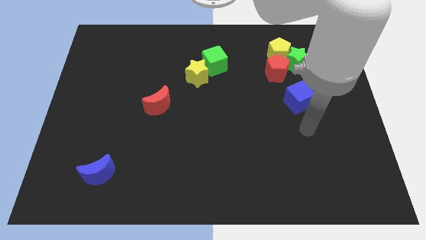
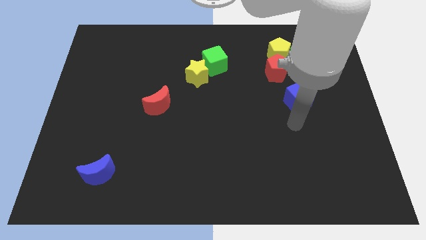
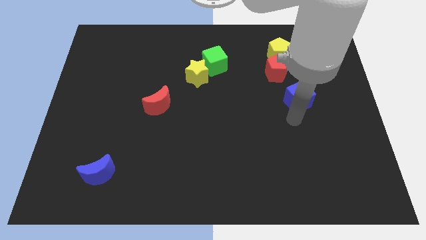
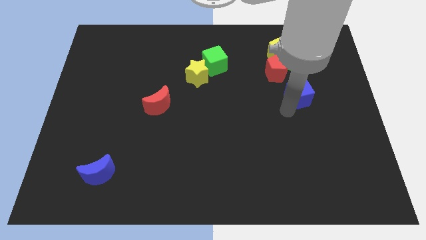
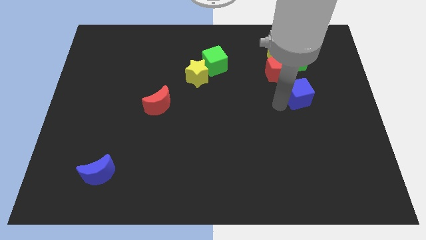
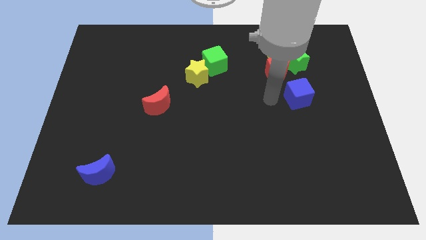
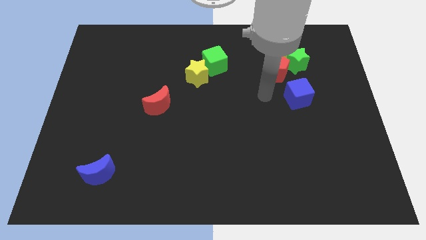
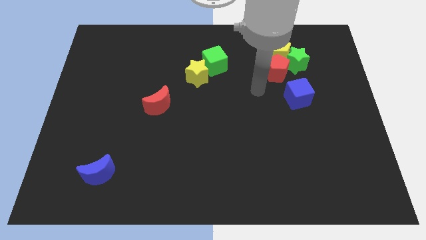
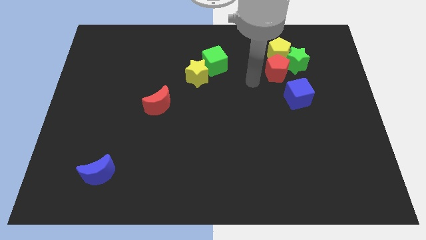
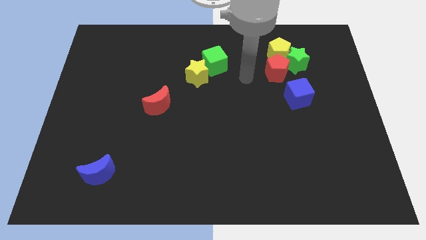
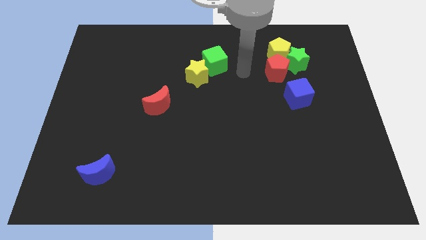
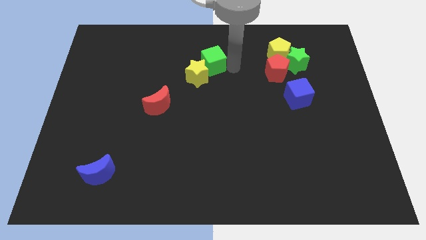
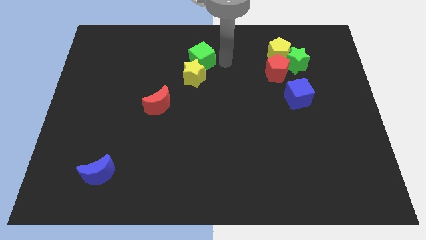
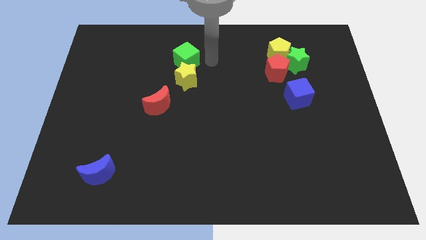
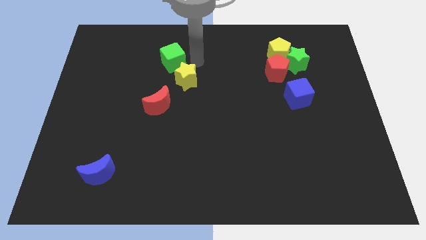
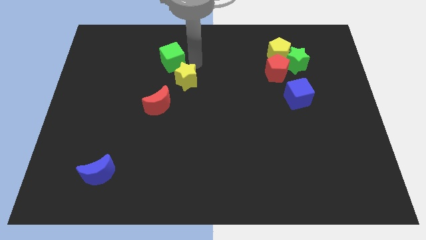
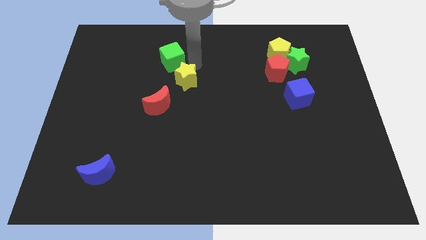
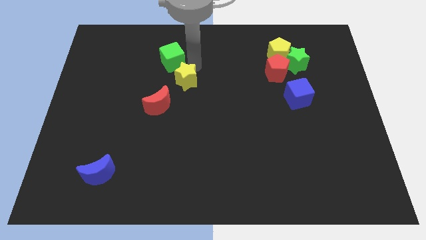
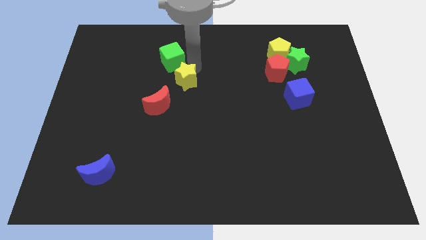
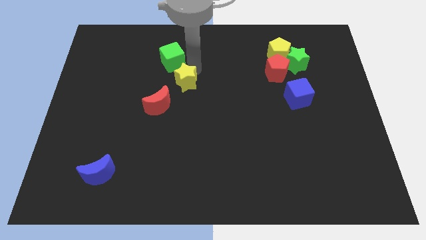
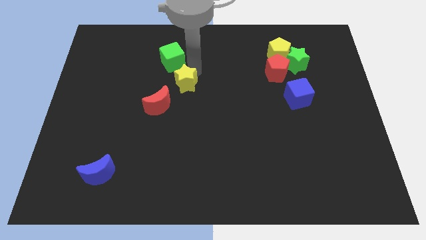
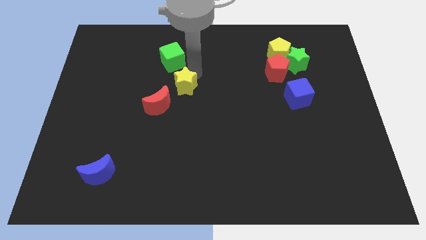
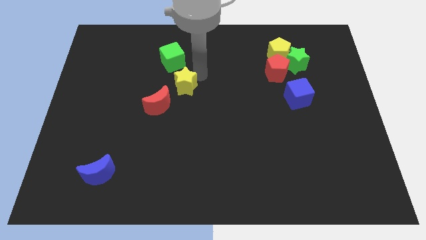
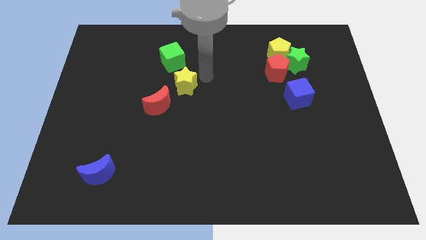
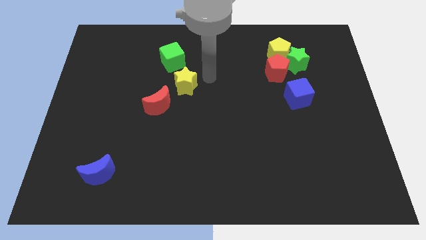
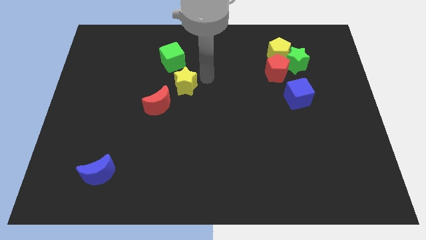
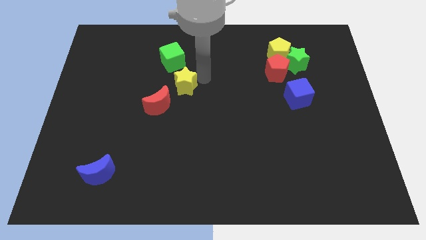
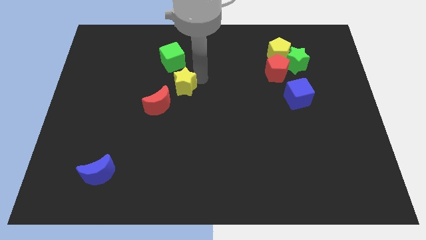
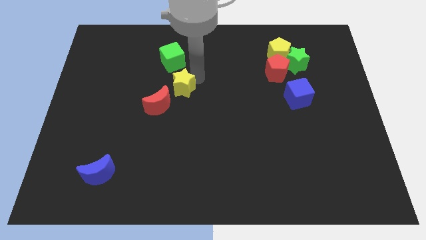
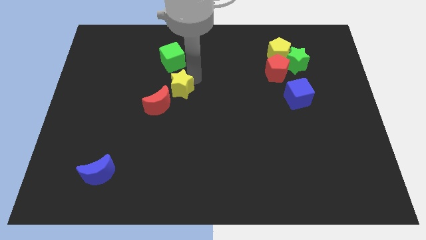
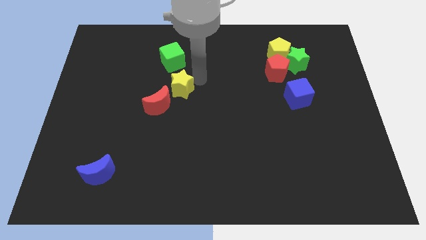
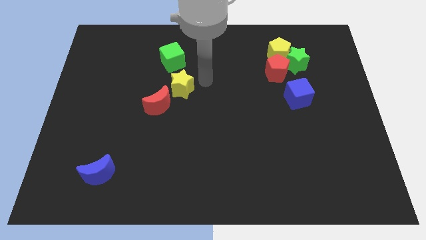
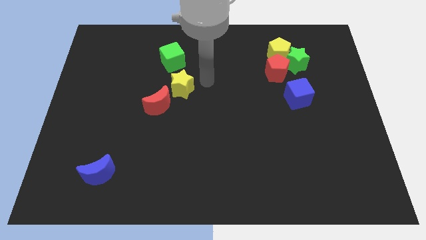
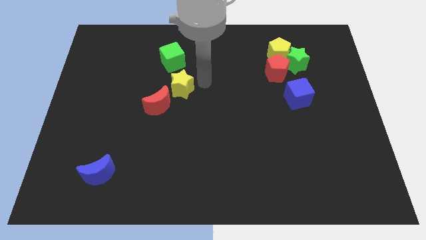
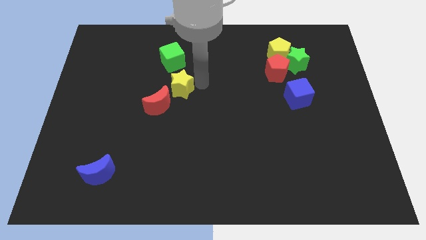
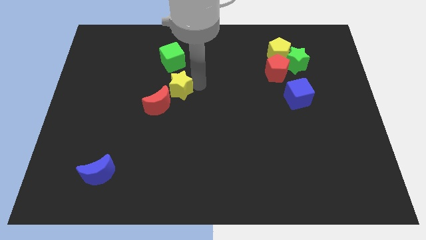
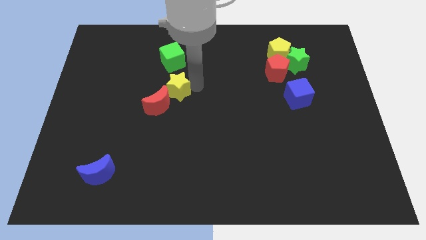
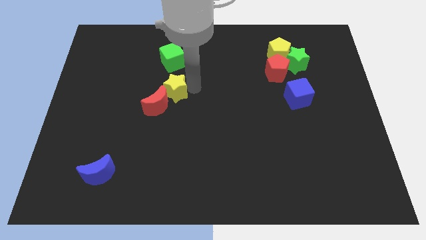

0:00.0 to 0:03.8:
slightly move the yellow star downwards and left diagonally

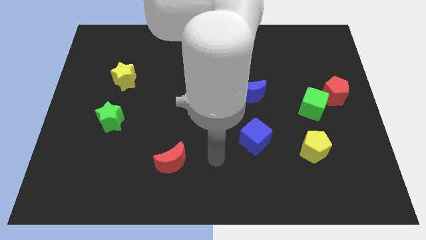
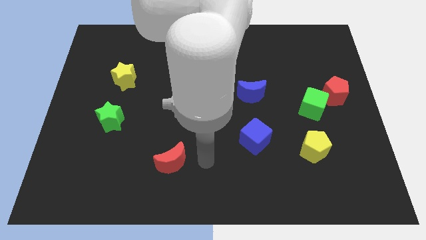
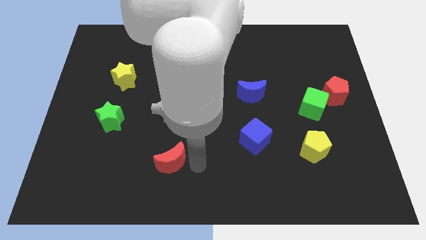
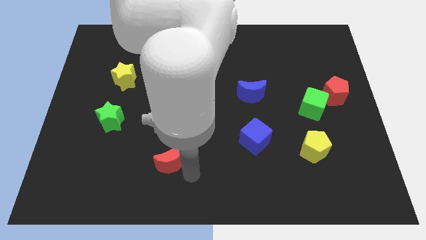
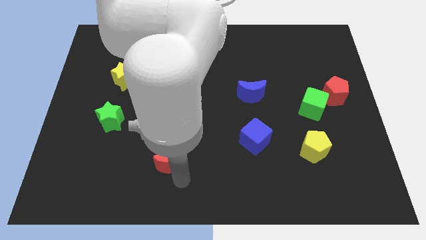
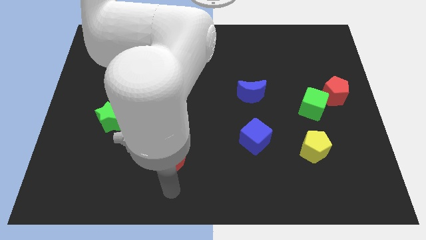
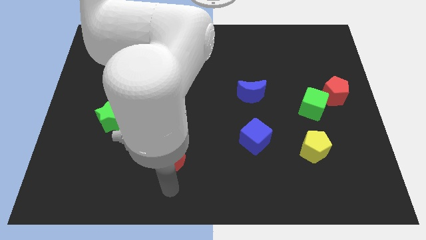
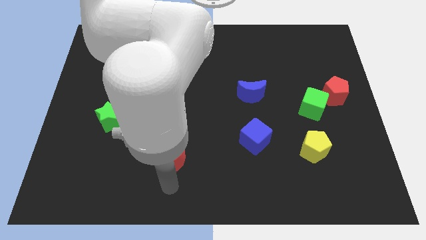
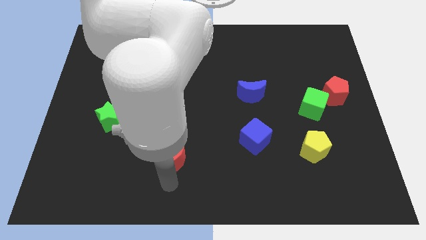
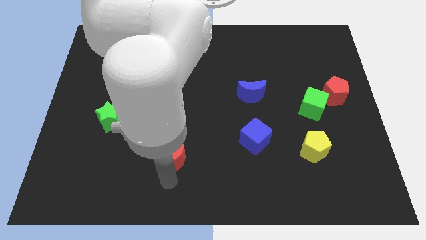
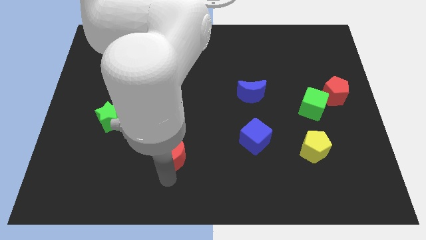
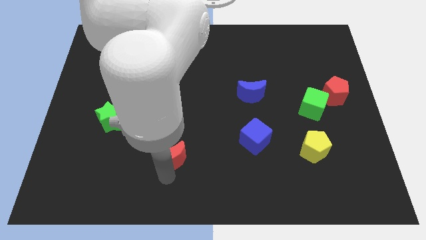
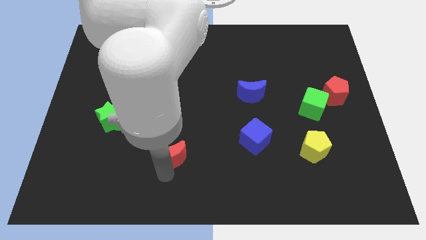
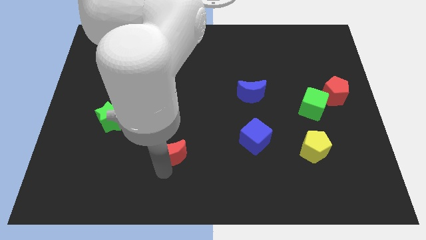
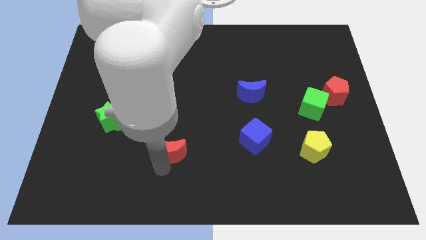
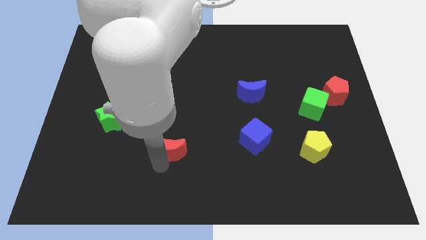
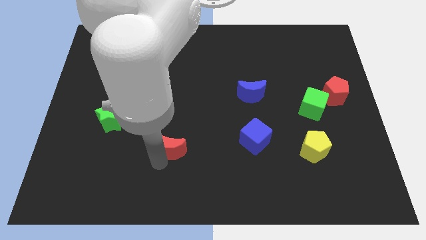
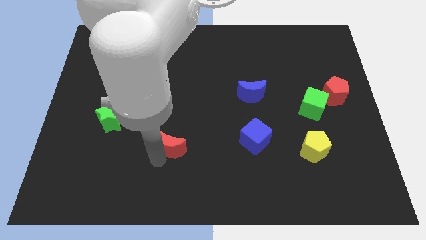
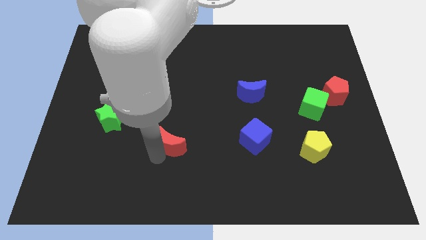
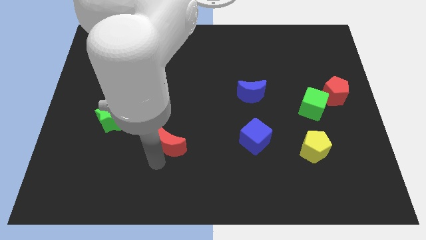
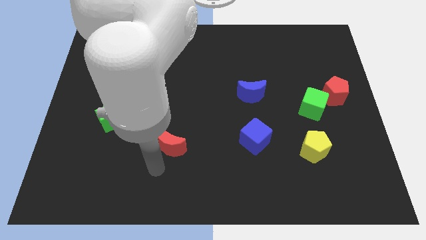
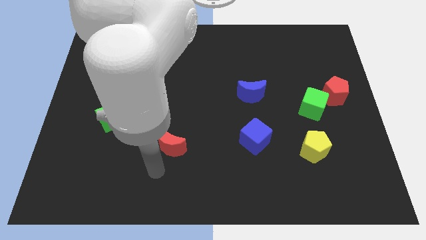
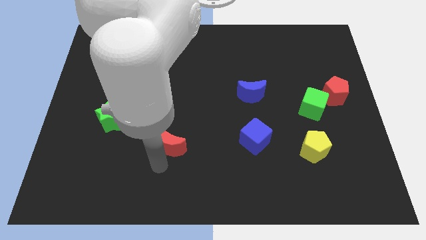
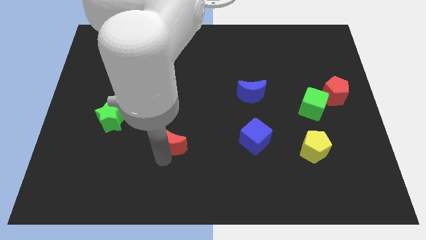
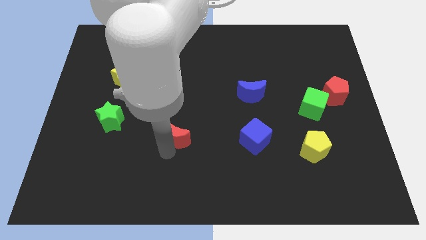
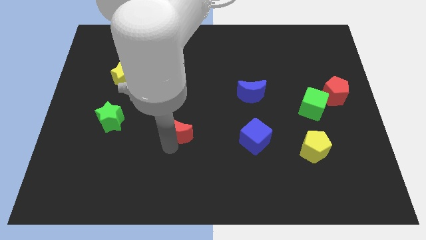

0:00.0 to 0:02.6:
slightly push the red moon up

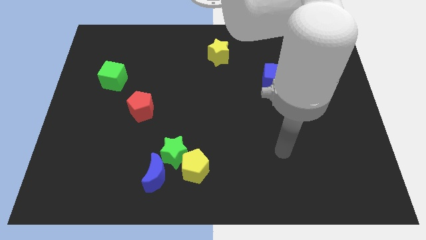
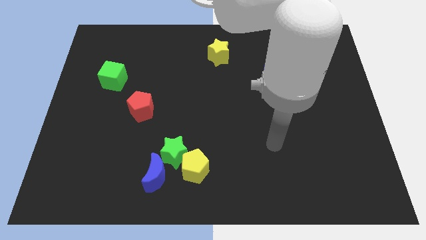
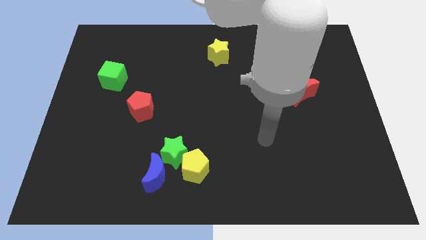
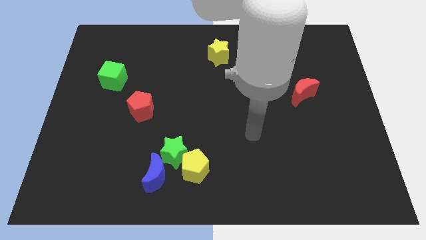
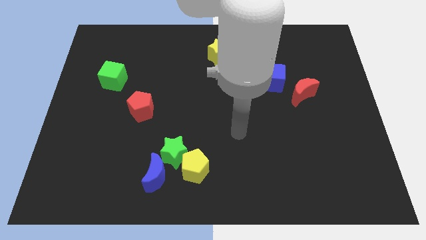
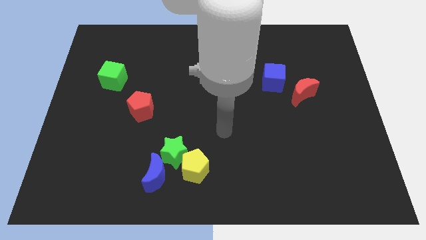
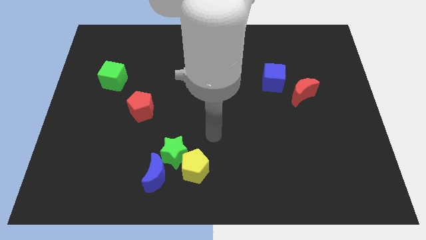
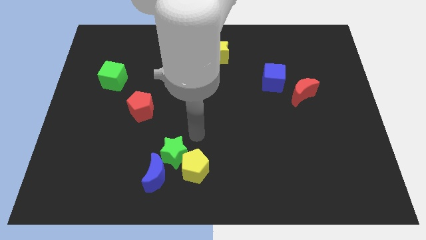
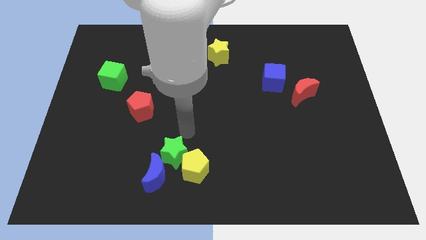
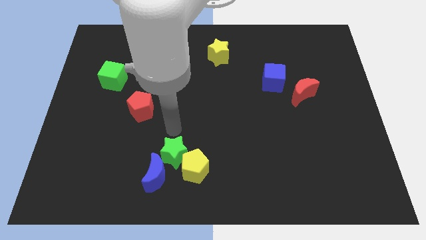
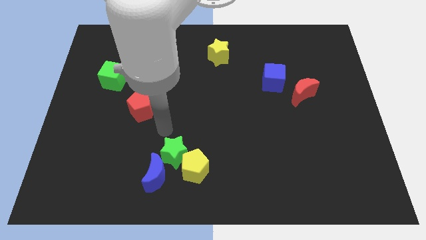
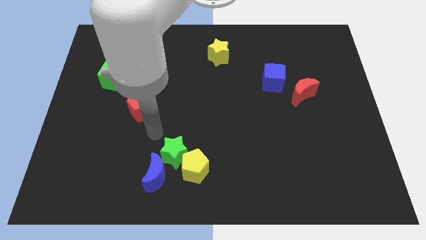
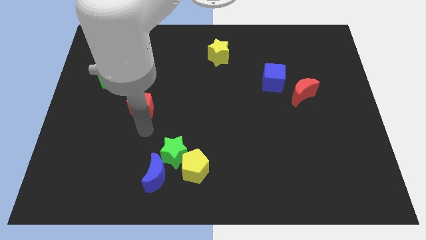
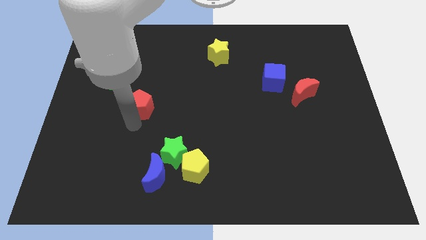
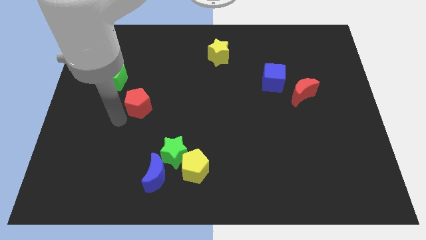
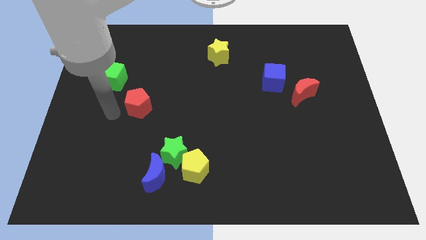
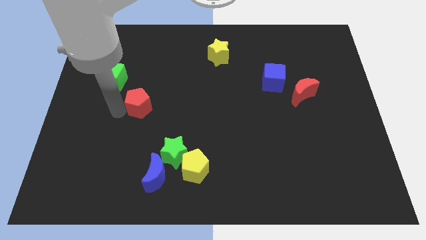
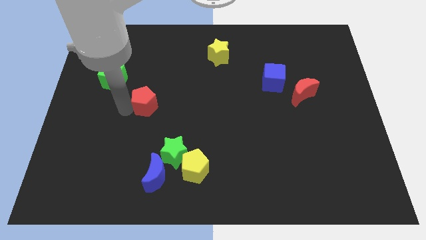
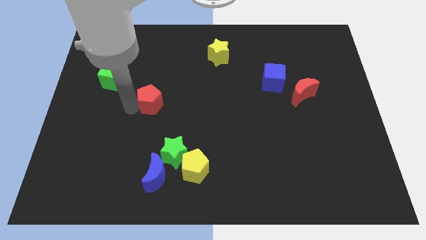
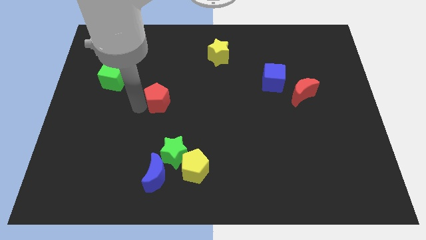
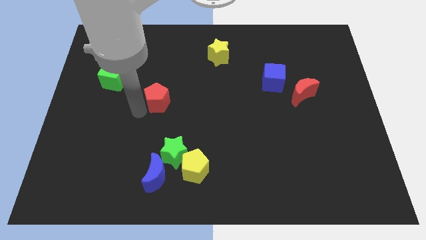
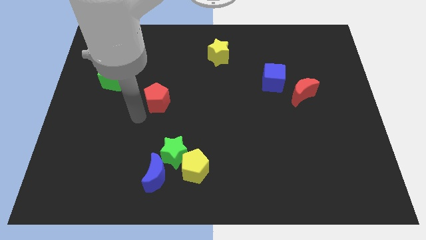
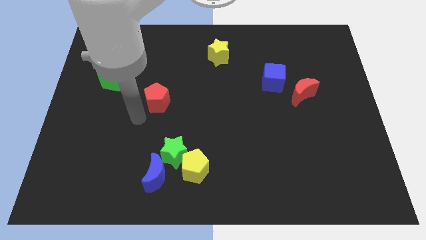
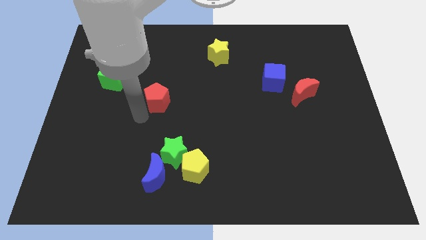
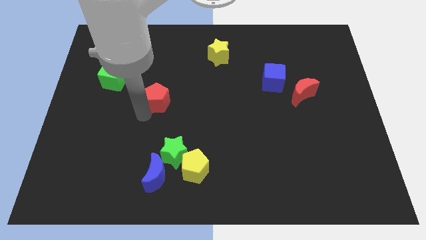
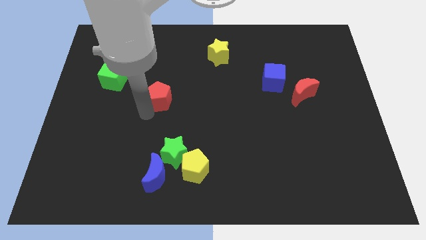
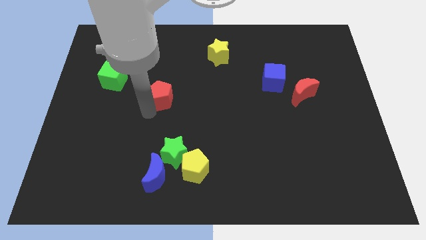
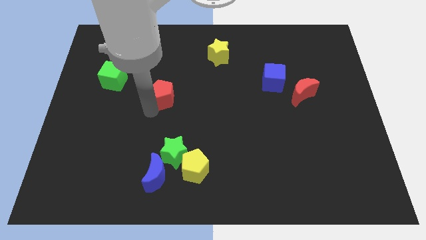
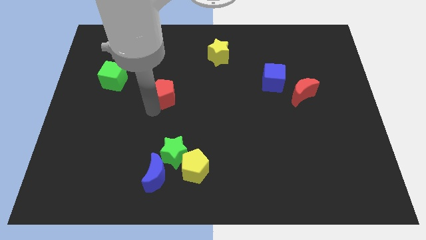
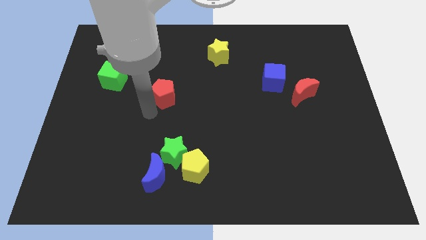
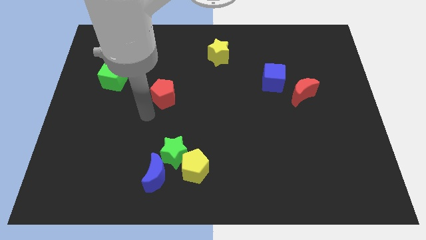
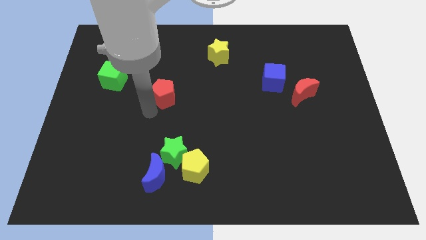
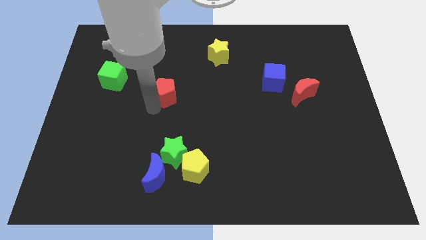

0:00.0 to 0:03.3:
move the red pentagon upwards and right diagonally a little bit
